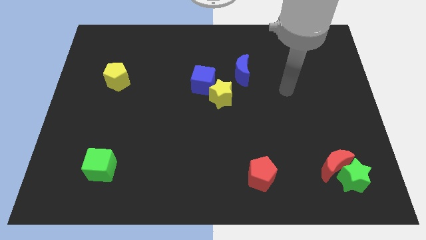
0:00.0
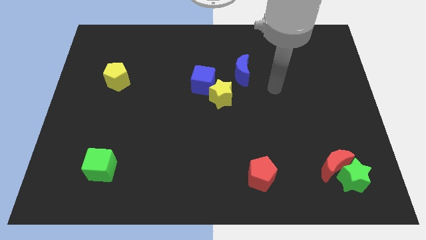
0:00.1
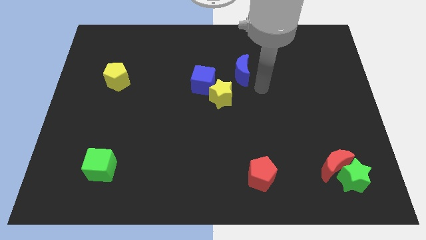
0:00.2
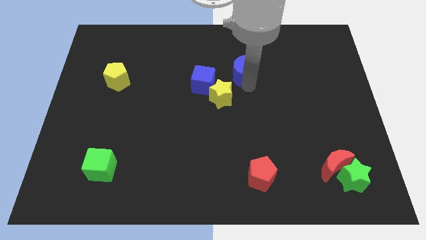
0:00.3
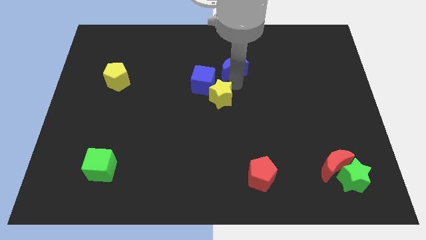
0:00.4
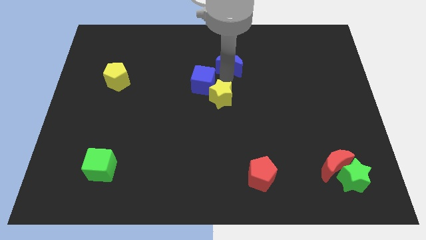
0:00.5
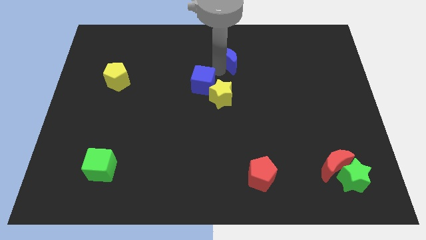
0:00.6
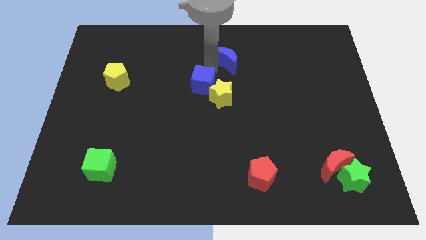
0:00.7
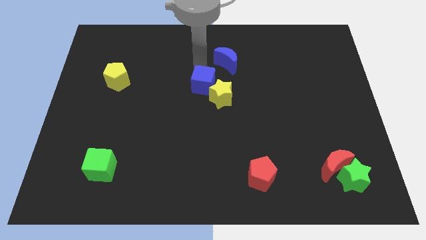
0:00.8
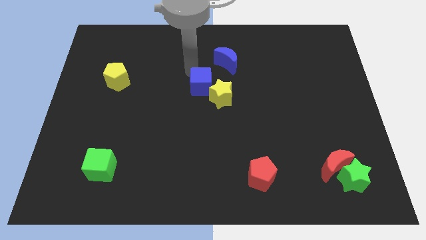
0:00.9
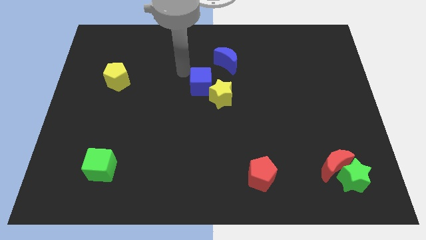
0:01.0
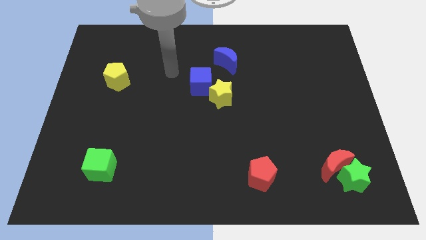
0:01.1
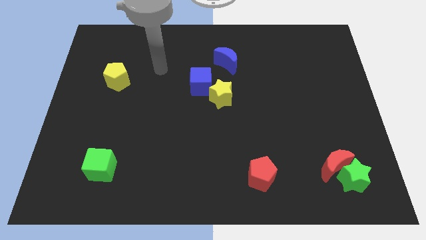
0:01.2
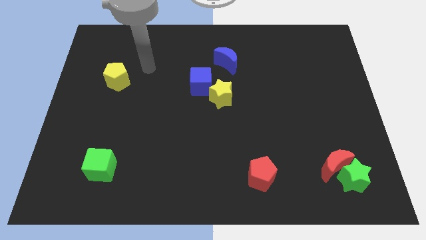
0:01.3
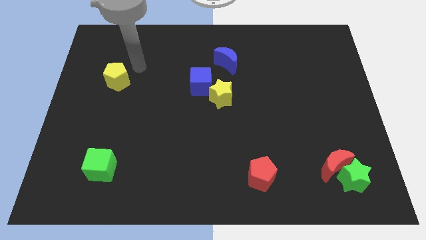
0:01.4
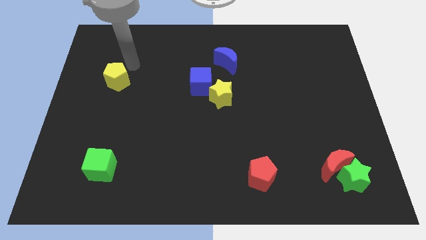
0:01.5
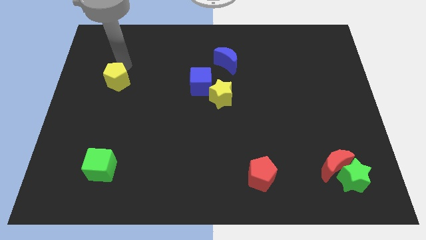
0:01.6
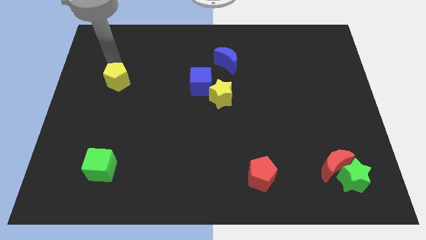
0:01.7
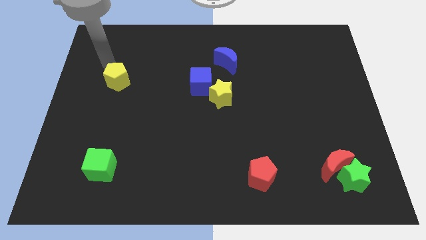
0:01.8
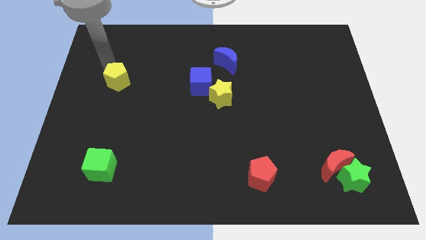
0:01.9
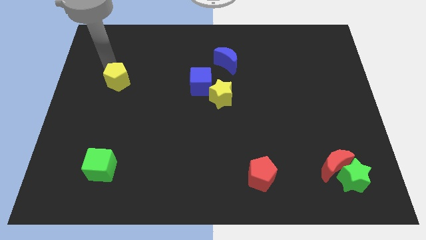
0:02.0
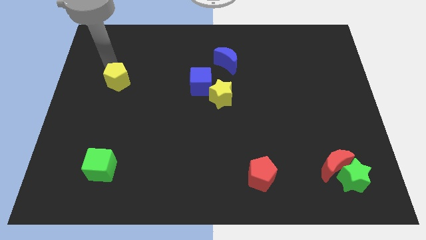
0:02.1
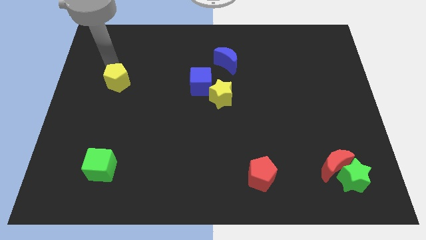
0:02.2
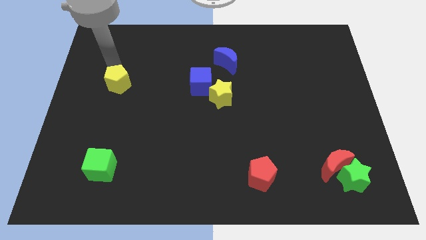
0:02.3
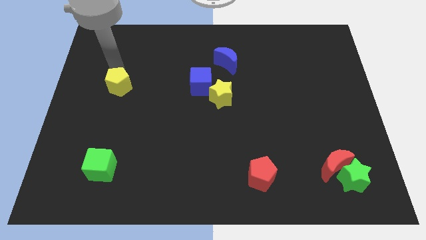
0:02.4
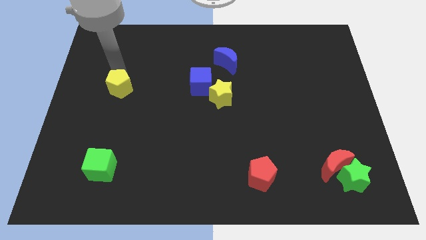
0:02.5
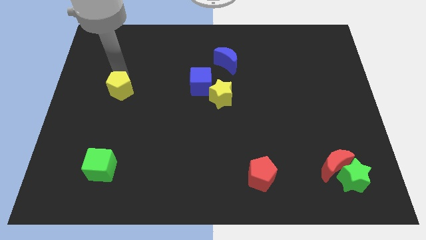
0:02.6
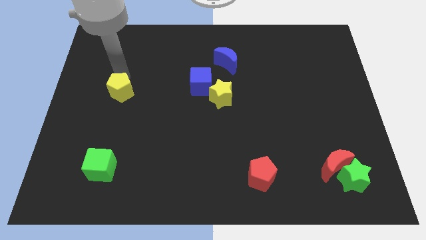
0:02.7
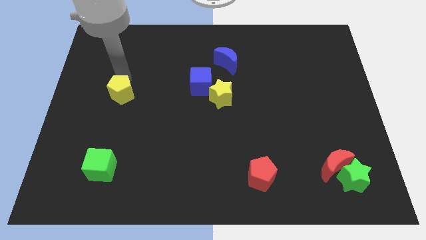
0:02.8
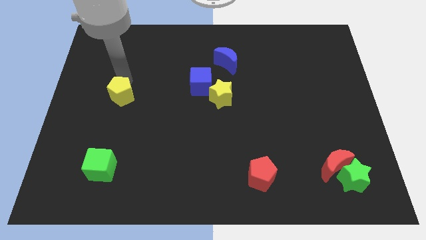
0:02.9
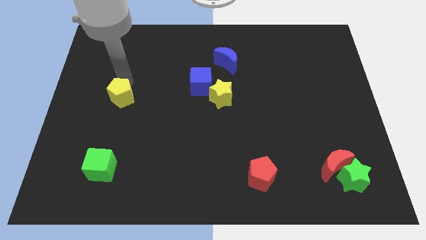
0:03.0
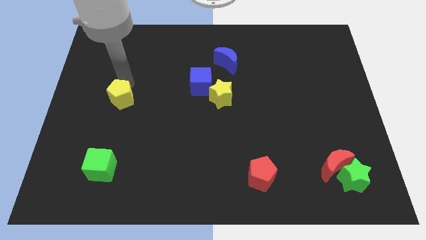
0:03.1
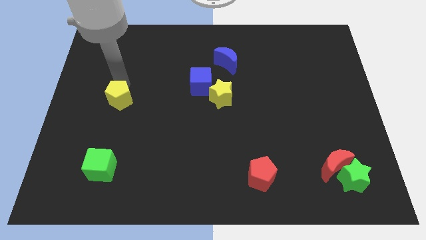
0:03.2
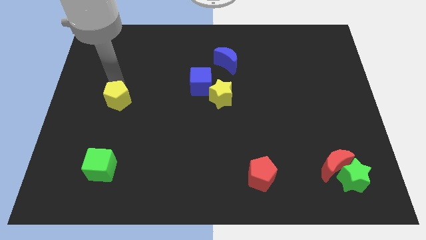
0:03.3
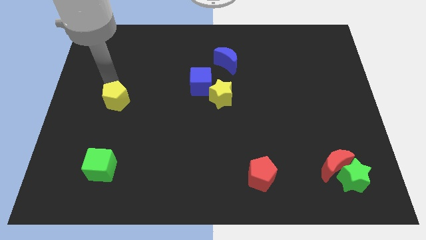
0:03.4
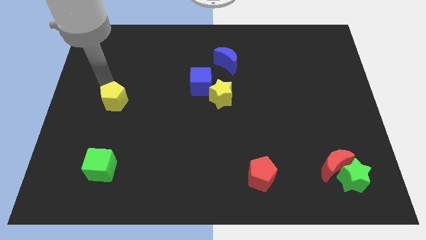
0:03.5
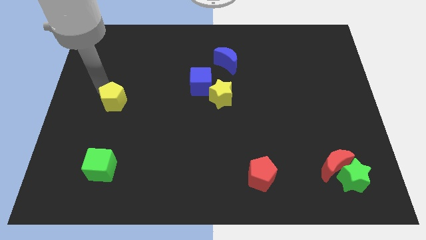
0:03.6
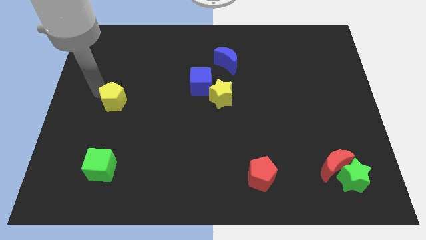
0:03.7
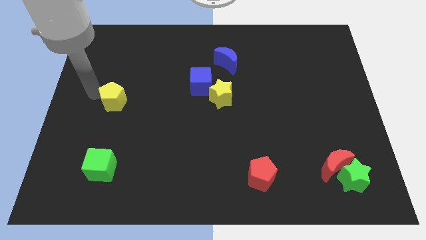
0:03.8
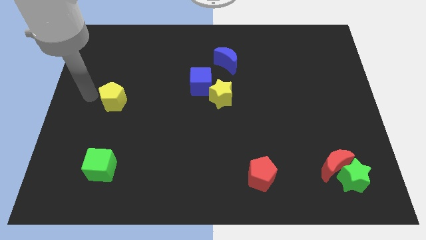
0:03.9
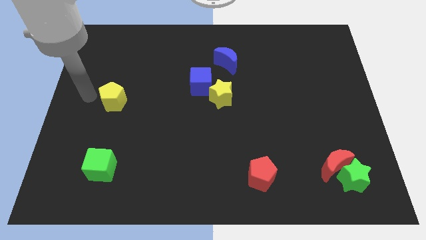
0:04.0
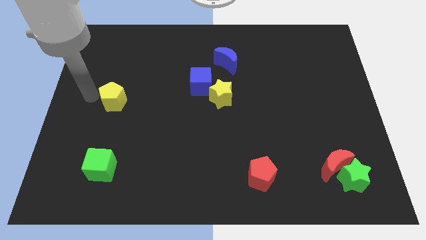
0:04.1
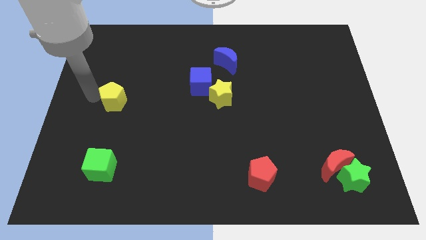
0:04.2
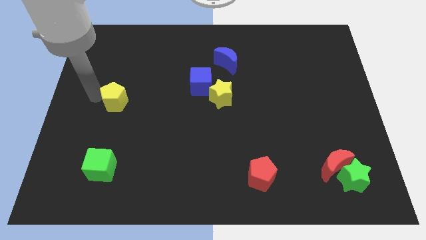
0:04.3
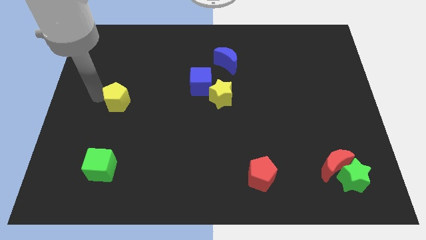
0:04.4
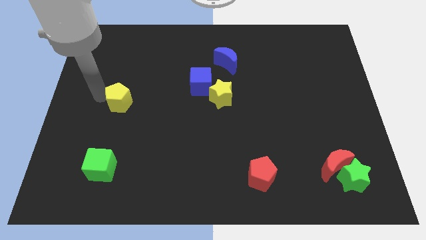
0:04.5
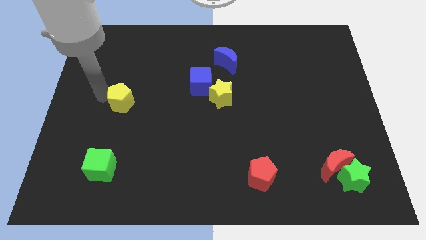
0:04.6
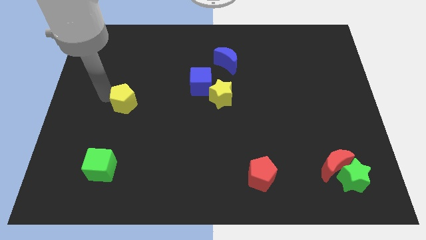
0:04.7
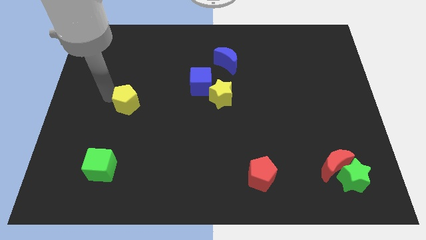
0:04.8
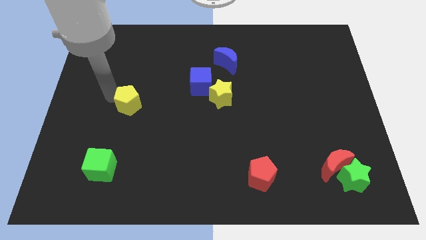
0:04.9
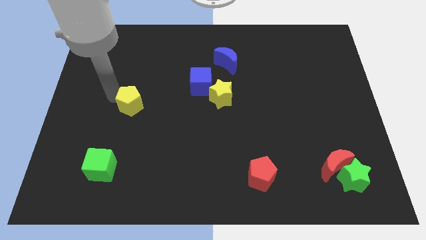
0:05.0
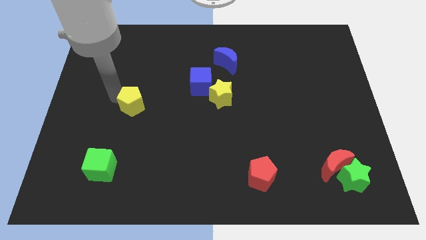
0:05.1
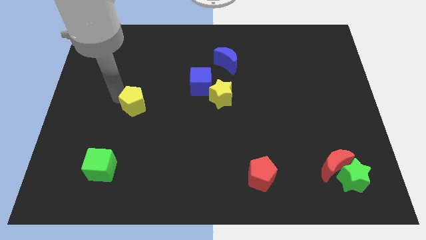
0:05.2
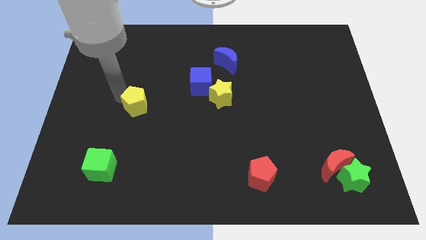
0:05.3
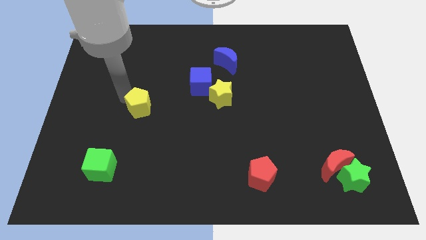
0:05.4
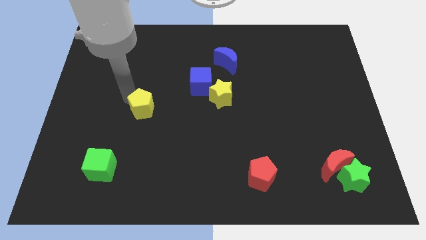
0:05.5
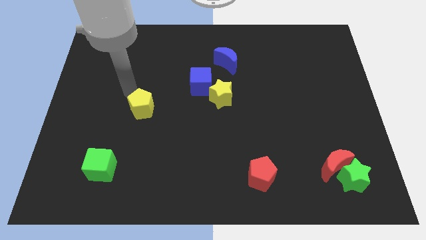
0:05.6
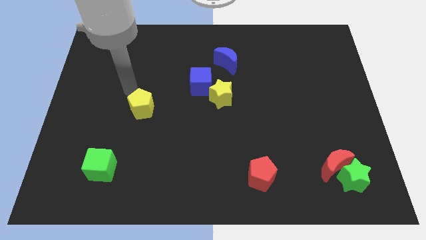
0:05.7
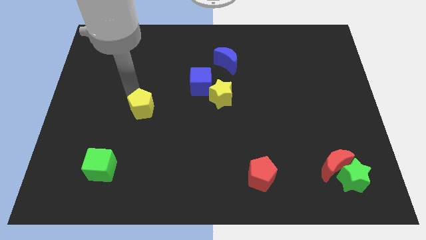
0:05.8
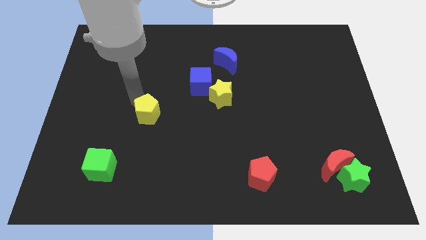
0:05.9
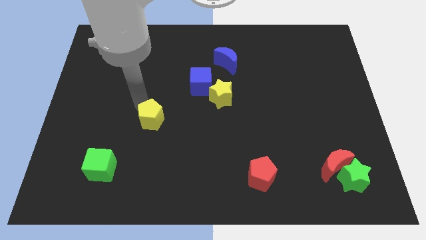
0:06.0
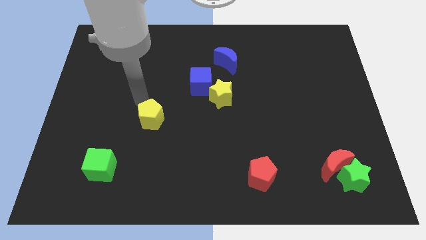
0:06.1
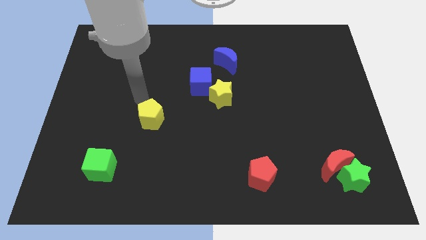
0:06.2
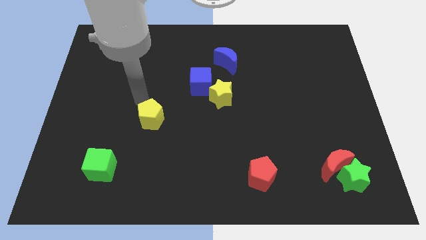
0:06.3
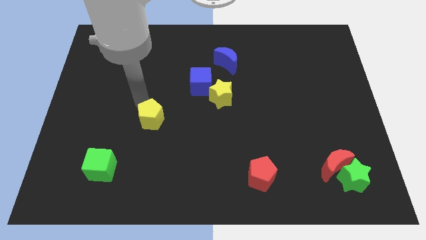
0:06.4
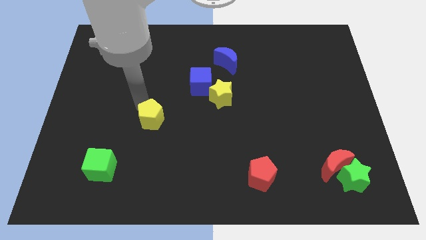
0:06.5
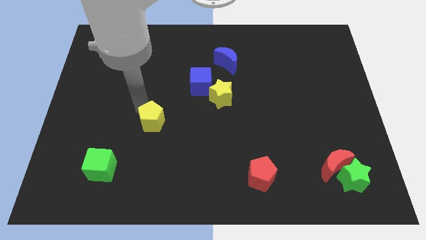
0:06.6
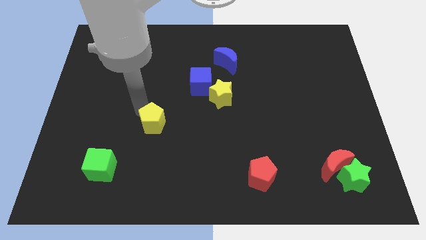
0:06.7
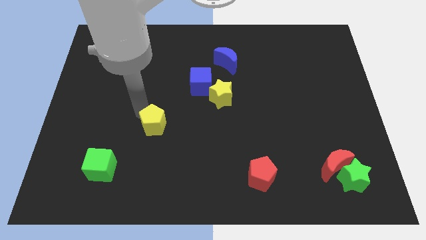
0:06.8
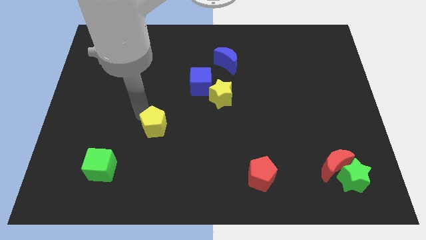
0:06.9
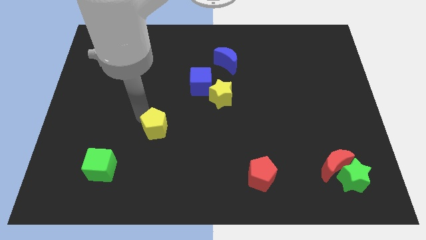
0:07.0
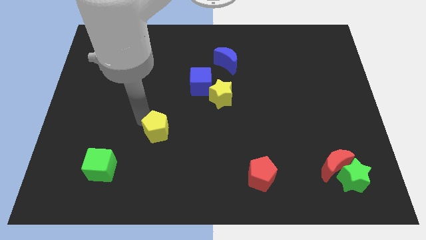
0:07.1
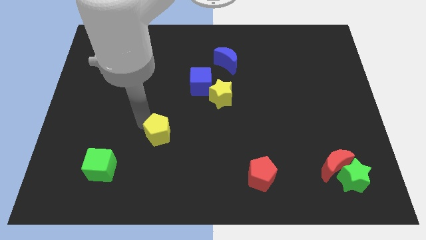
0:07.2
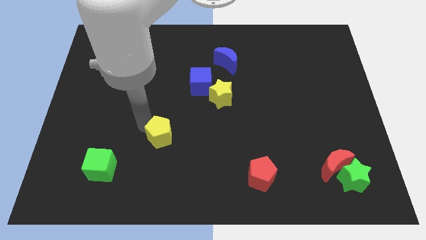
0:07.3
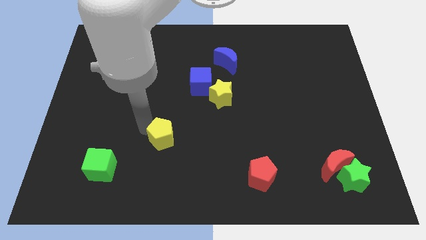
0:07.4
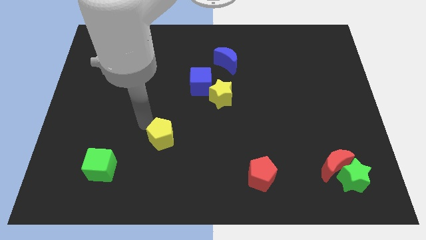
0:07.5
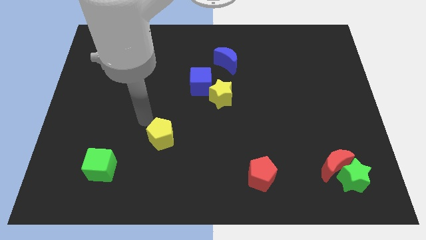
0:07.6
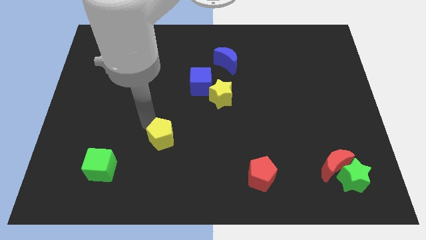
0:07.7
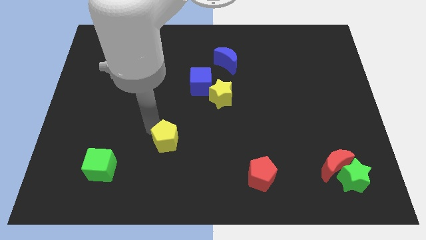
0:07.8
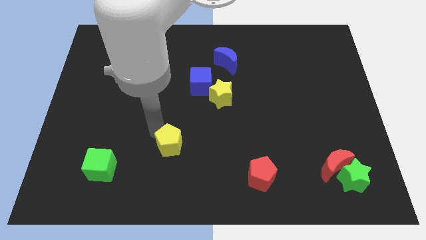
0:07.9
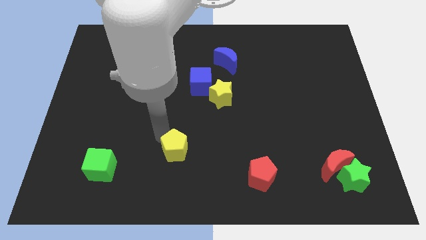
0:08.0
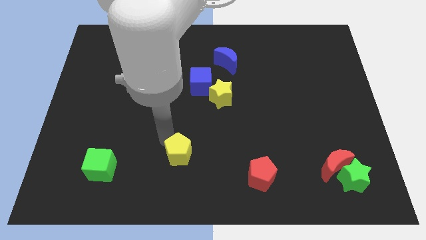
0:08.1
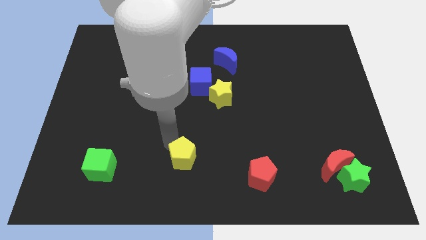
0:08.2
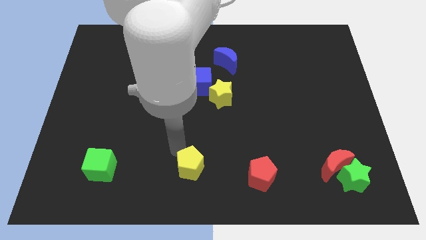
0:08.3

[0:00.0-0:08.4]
push the yellow pentagon to the bottom
